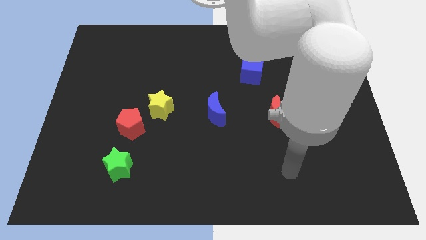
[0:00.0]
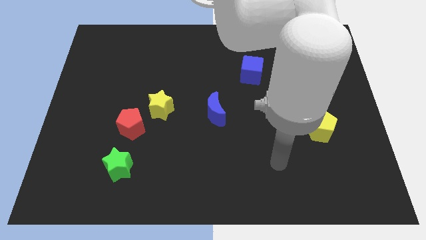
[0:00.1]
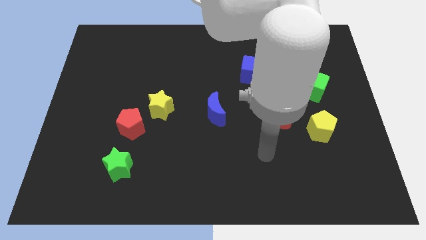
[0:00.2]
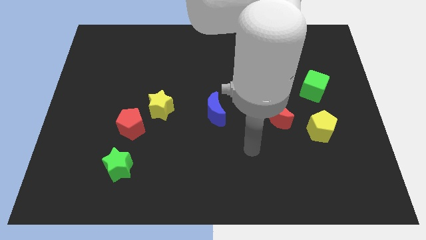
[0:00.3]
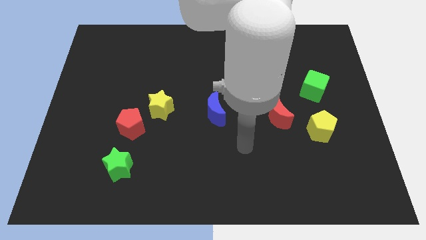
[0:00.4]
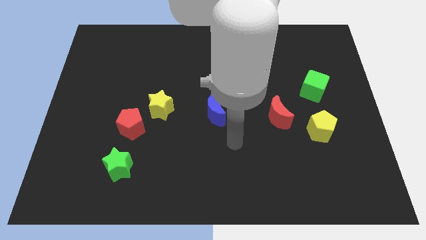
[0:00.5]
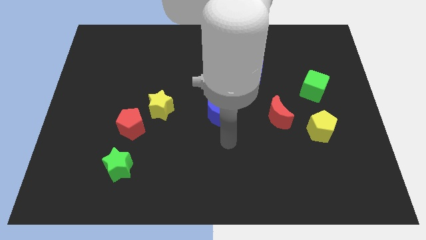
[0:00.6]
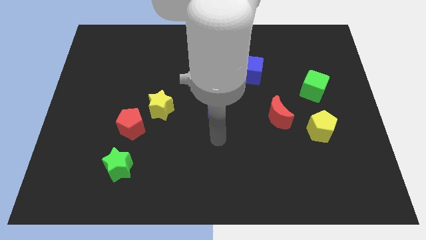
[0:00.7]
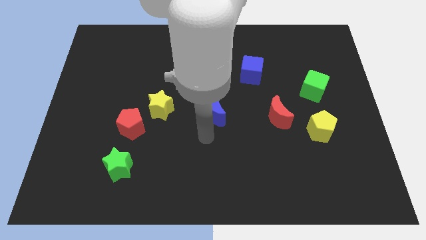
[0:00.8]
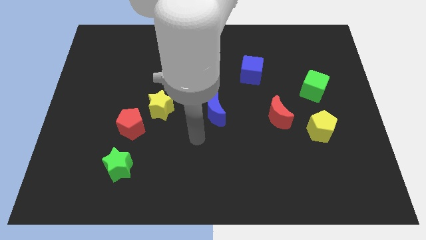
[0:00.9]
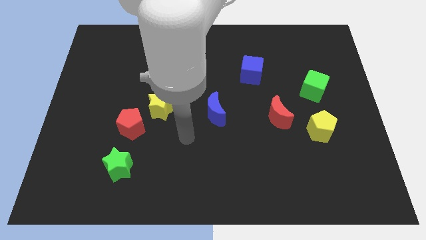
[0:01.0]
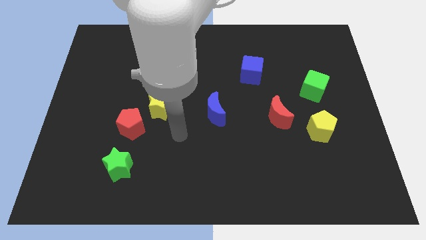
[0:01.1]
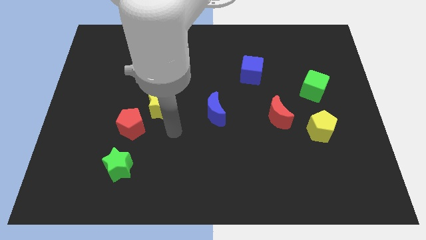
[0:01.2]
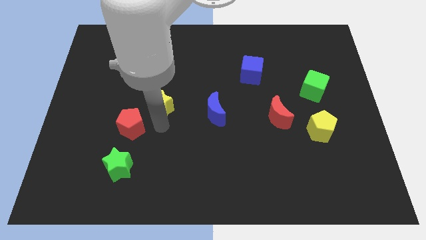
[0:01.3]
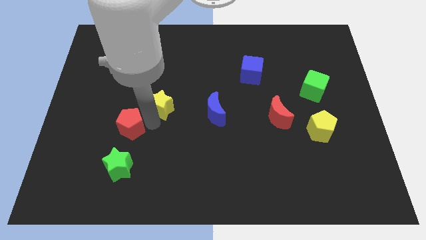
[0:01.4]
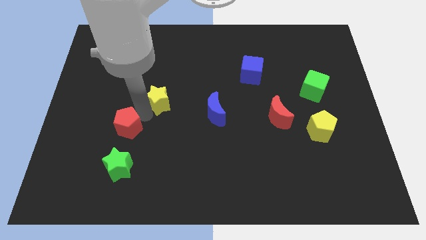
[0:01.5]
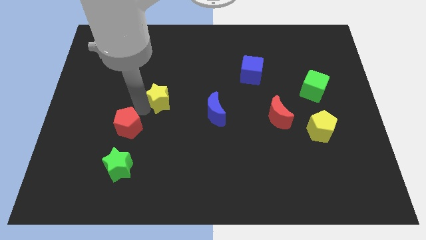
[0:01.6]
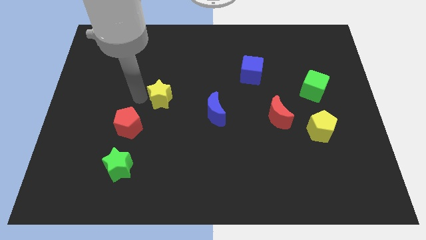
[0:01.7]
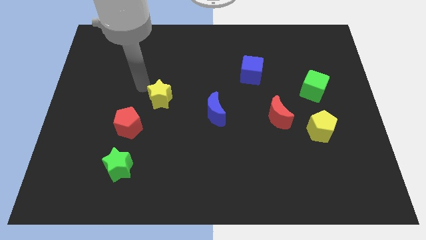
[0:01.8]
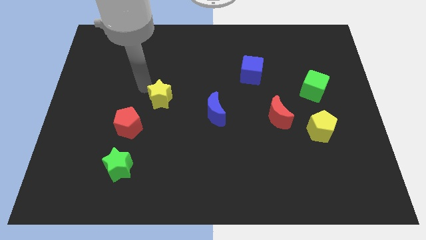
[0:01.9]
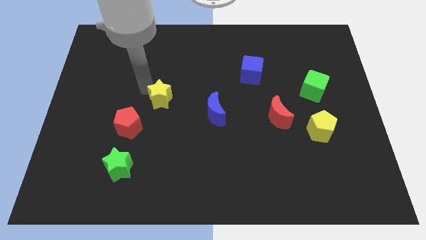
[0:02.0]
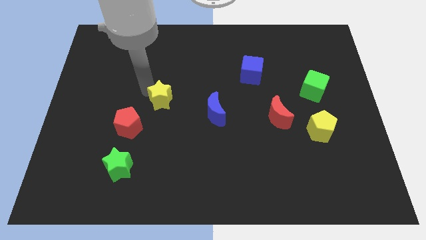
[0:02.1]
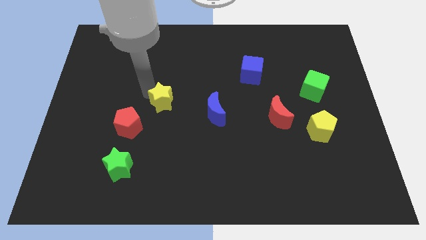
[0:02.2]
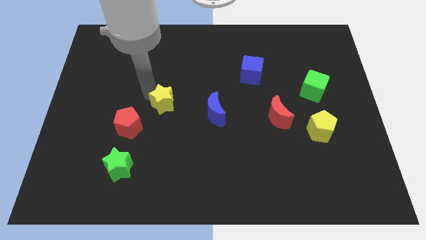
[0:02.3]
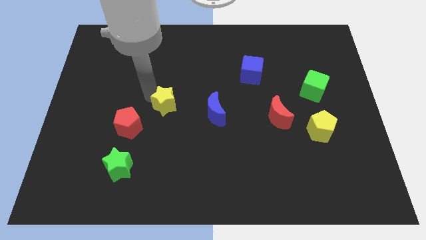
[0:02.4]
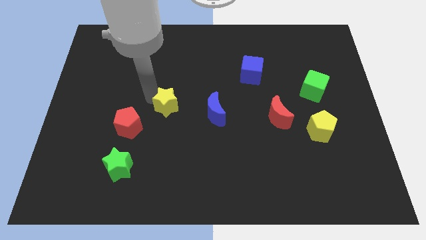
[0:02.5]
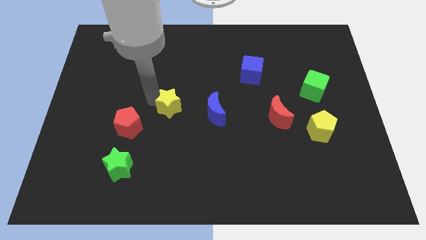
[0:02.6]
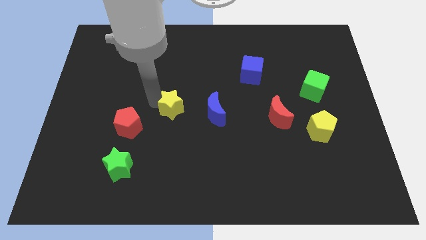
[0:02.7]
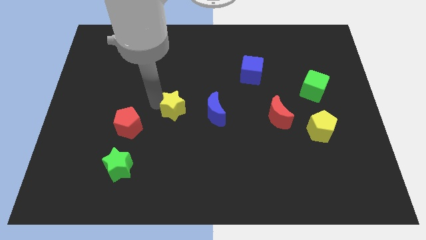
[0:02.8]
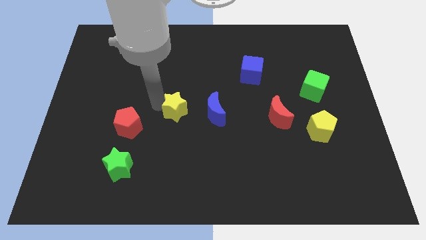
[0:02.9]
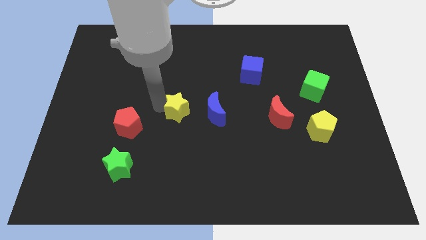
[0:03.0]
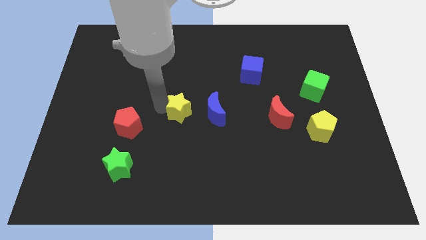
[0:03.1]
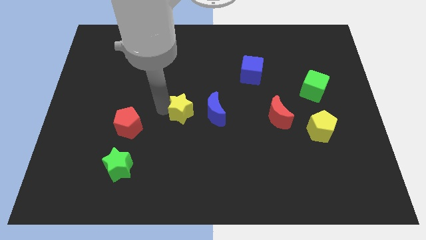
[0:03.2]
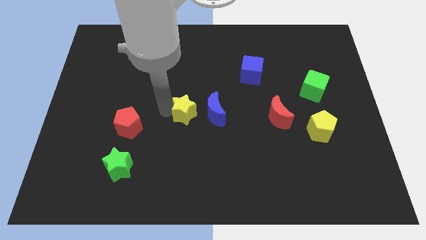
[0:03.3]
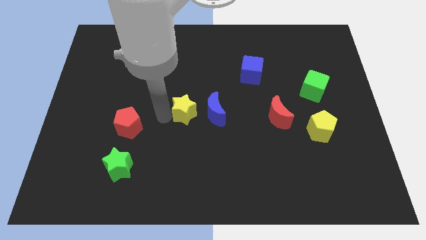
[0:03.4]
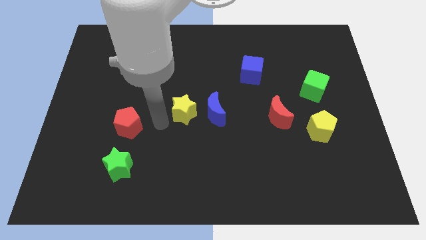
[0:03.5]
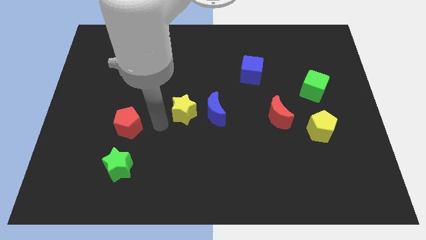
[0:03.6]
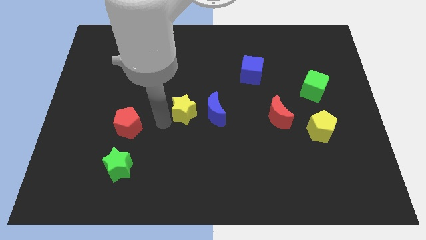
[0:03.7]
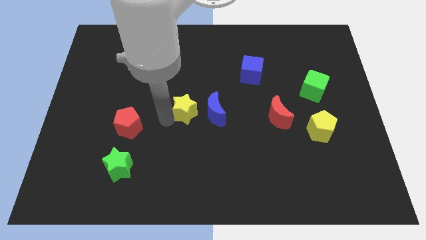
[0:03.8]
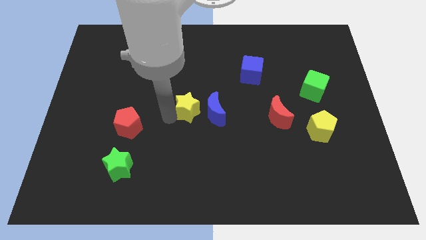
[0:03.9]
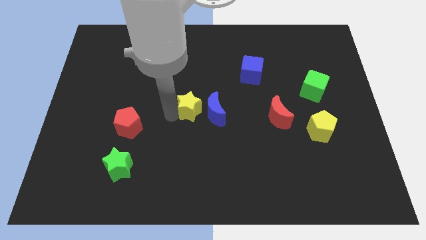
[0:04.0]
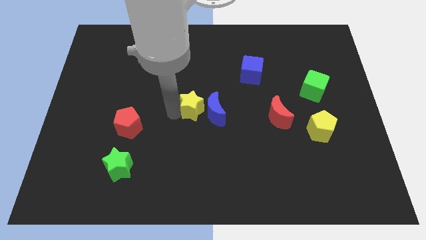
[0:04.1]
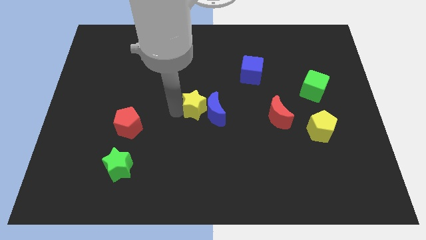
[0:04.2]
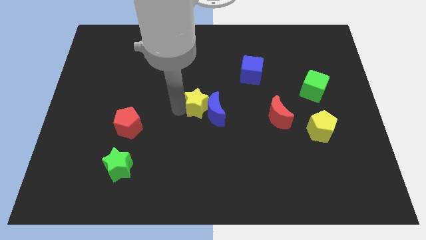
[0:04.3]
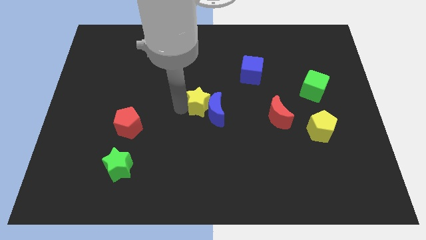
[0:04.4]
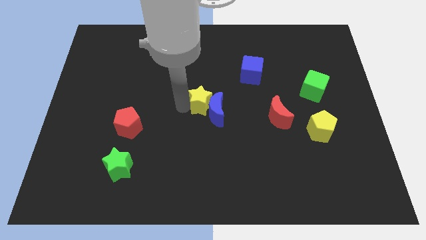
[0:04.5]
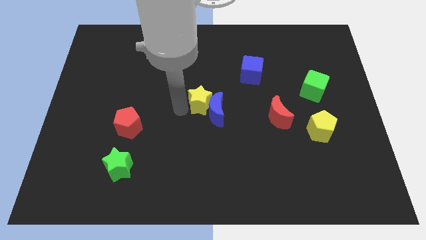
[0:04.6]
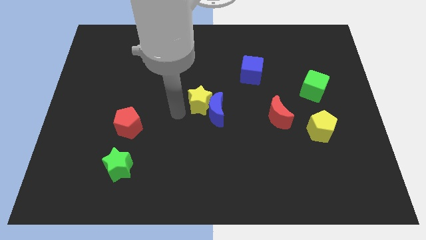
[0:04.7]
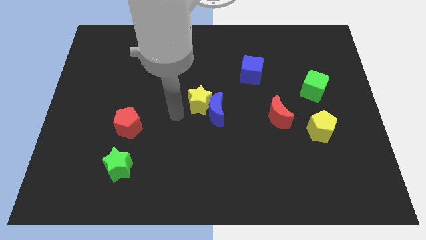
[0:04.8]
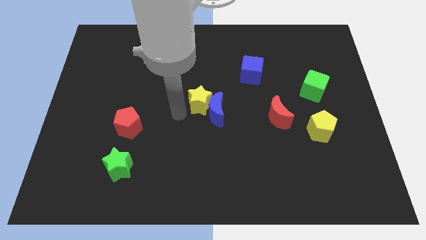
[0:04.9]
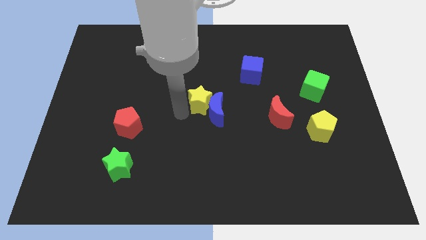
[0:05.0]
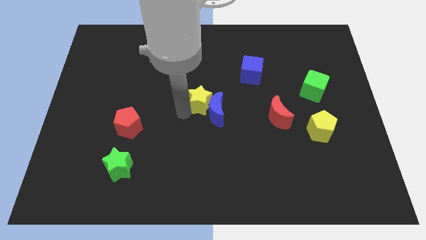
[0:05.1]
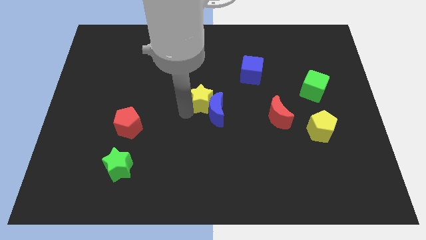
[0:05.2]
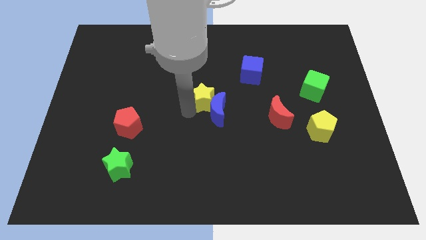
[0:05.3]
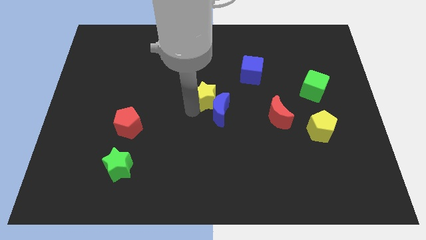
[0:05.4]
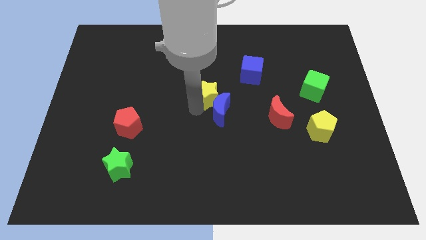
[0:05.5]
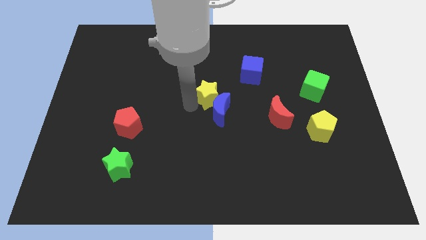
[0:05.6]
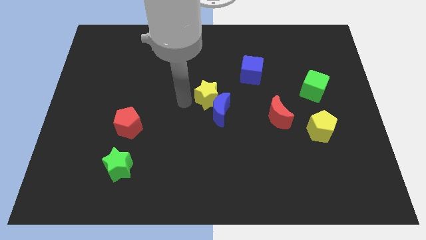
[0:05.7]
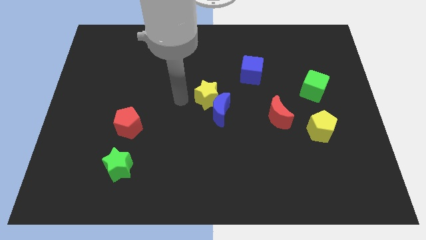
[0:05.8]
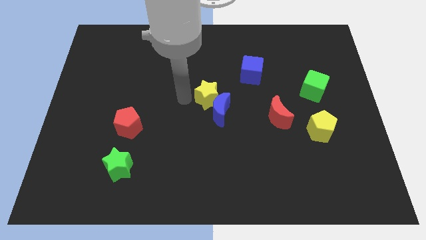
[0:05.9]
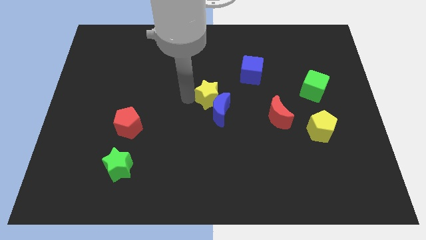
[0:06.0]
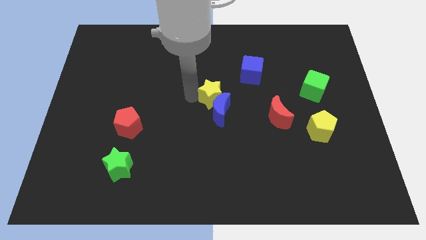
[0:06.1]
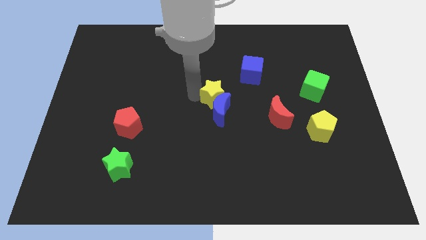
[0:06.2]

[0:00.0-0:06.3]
move the yellow star diagonally up and to the right of the blue moon

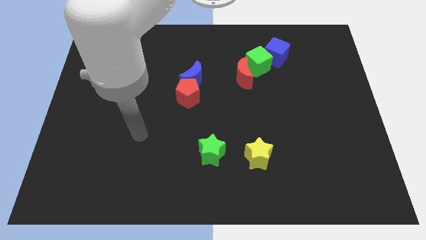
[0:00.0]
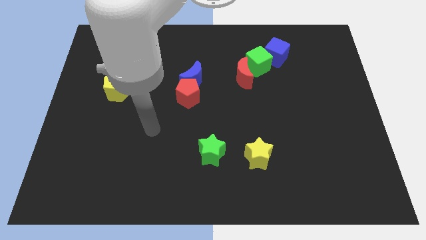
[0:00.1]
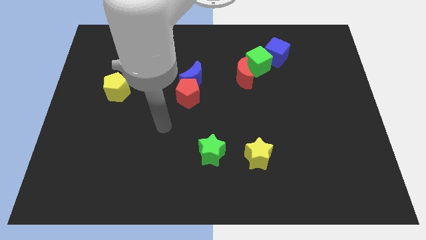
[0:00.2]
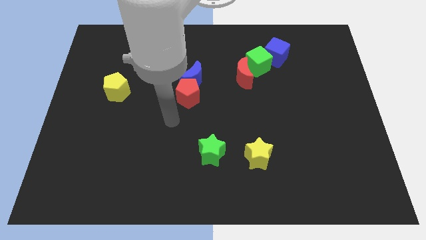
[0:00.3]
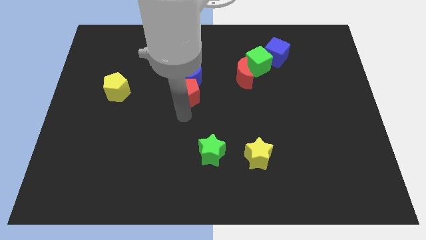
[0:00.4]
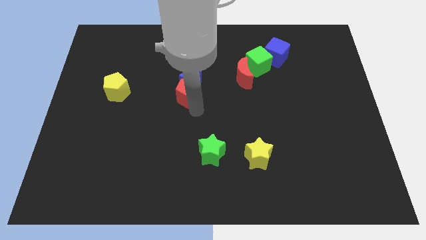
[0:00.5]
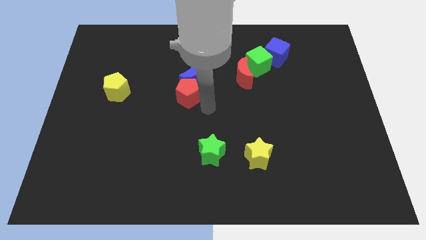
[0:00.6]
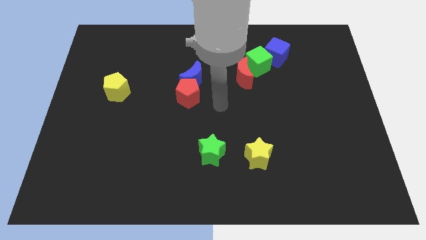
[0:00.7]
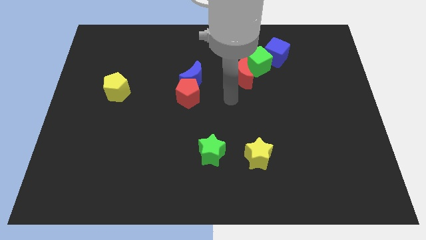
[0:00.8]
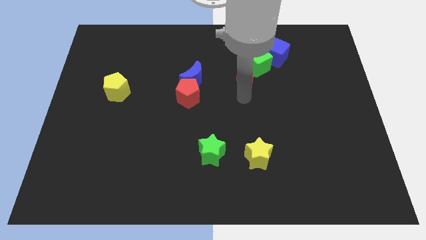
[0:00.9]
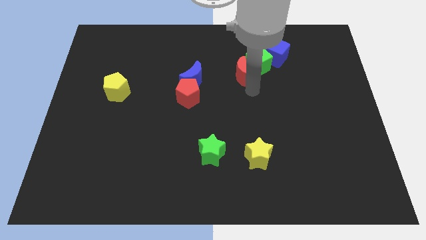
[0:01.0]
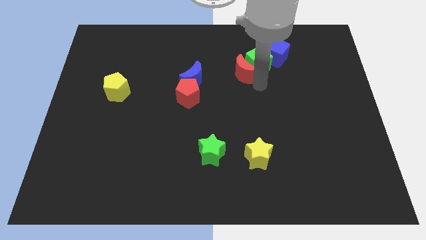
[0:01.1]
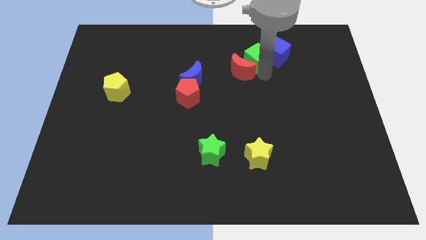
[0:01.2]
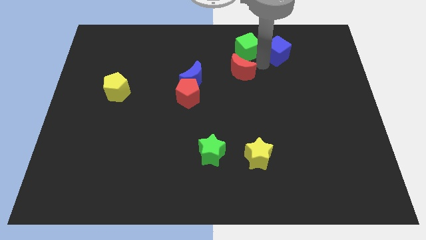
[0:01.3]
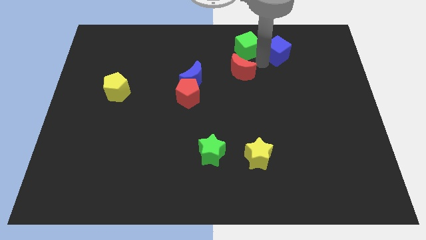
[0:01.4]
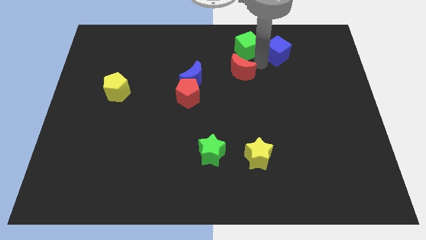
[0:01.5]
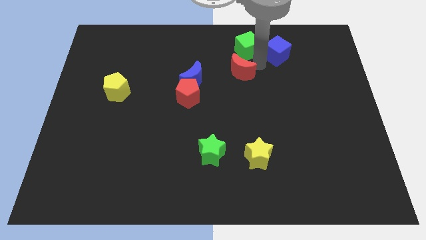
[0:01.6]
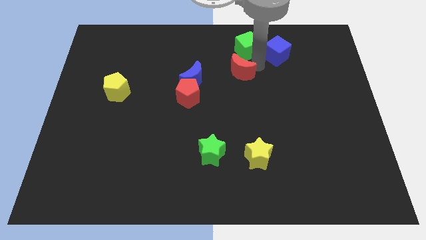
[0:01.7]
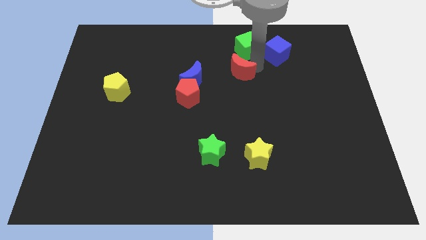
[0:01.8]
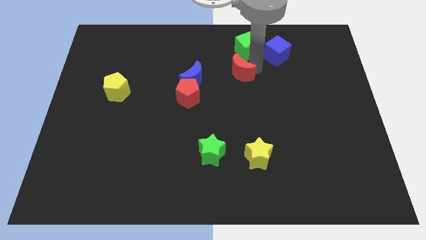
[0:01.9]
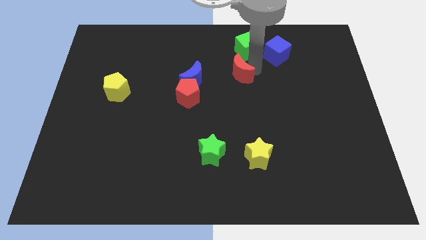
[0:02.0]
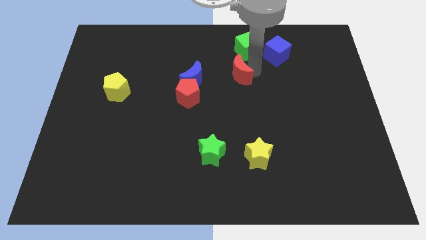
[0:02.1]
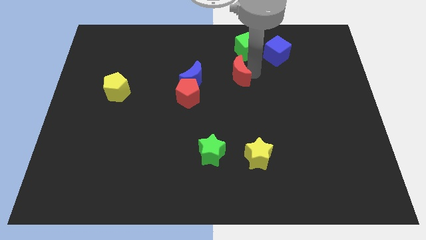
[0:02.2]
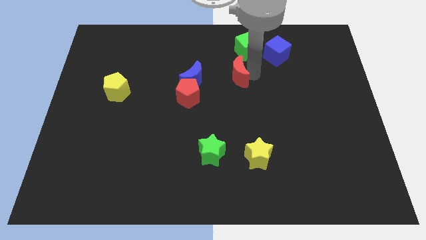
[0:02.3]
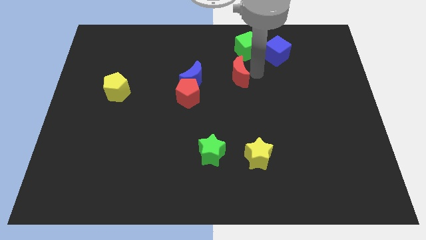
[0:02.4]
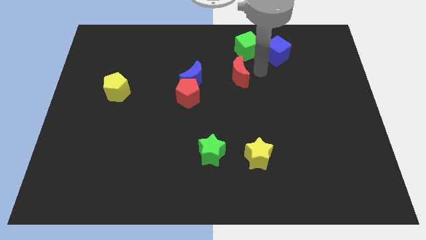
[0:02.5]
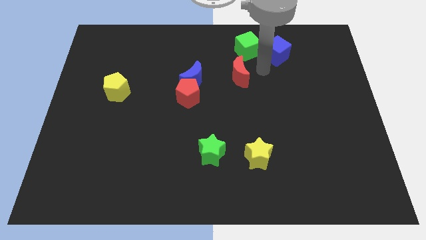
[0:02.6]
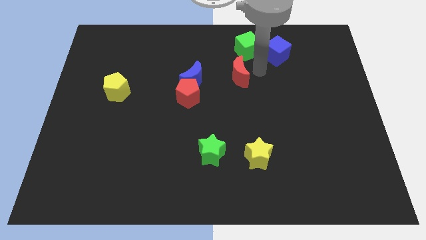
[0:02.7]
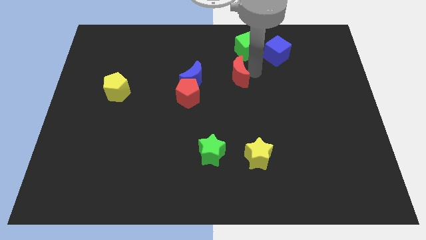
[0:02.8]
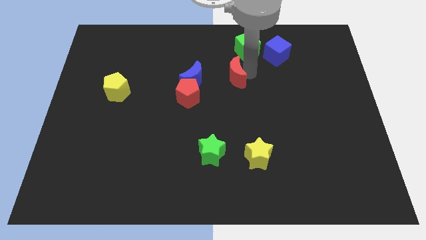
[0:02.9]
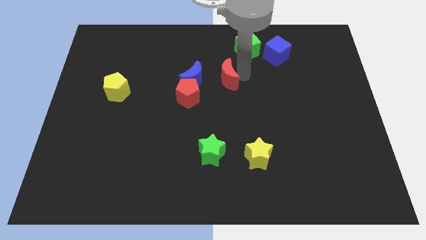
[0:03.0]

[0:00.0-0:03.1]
push the red moon diagonally up and to the right of the red pentagon
